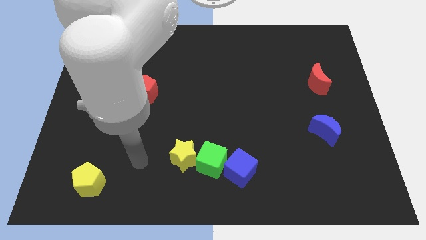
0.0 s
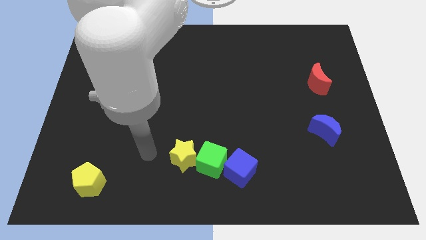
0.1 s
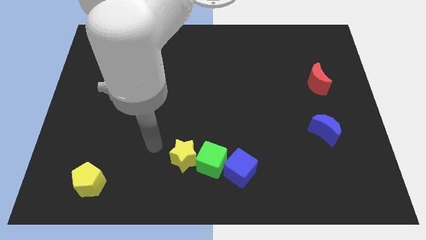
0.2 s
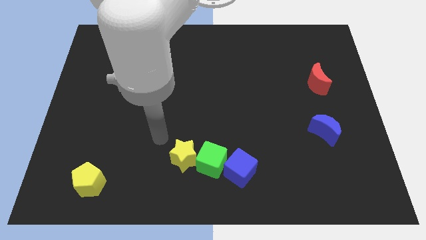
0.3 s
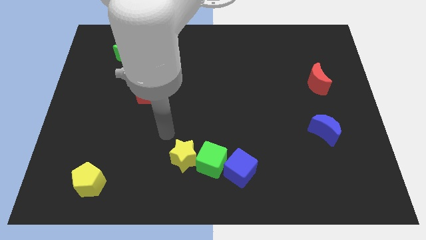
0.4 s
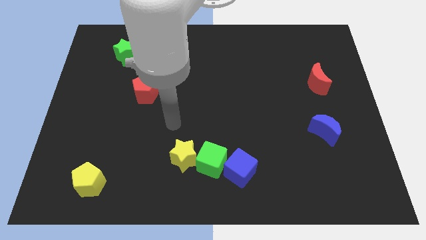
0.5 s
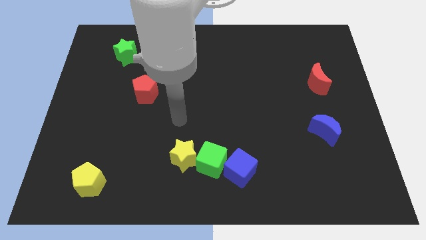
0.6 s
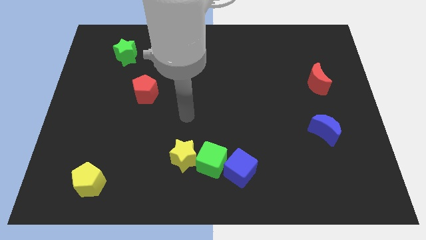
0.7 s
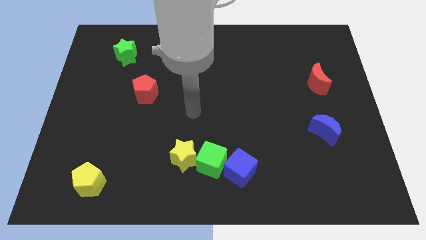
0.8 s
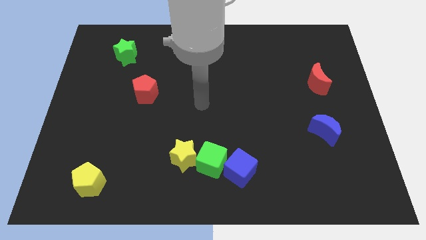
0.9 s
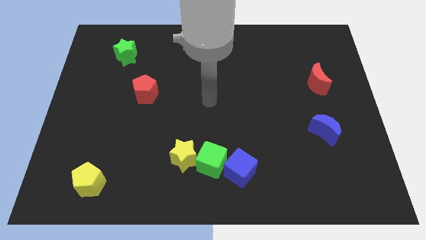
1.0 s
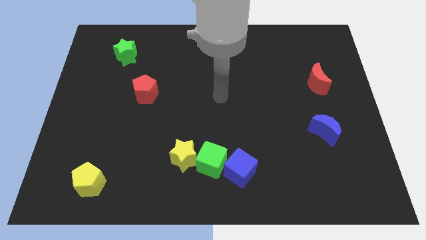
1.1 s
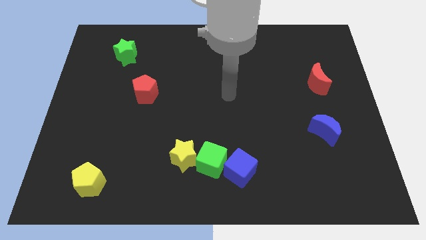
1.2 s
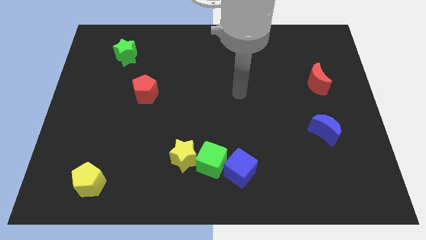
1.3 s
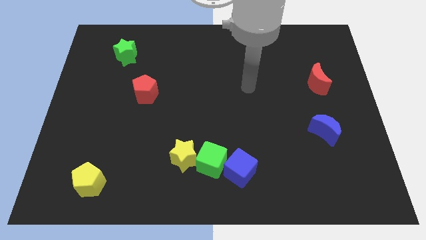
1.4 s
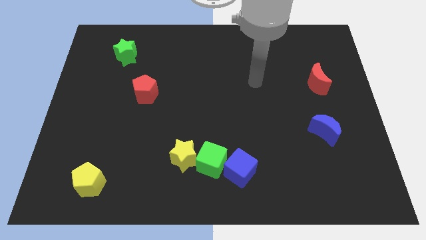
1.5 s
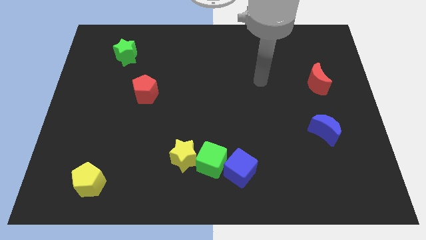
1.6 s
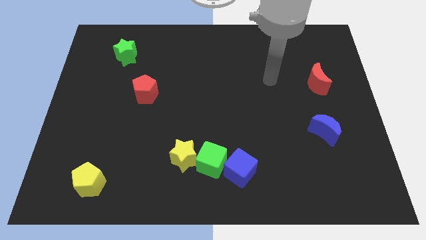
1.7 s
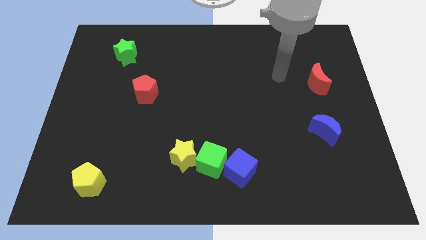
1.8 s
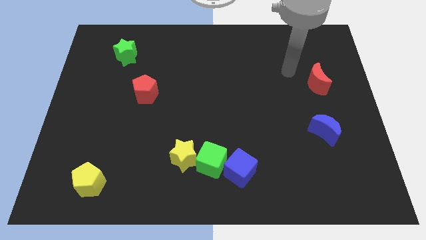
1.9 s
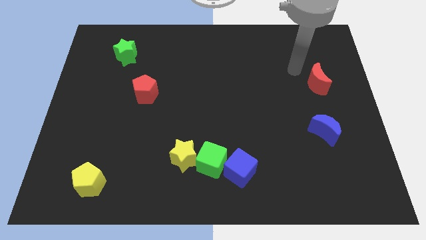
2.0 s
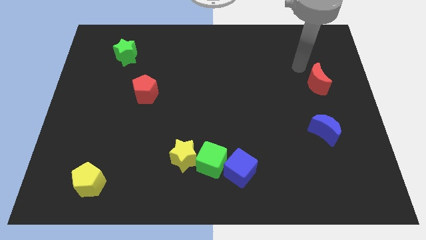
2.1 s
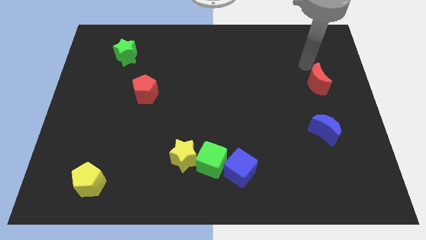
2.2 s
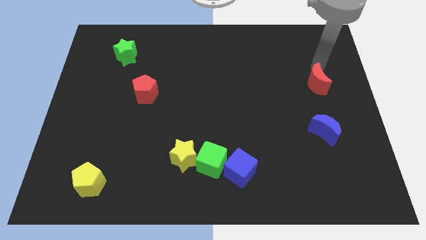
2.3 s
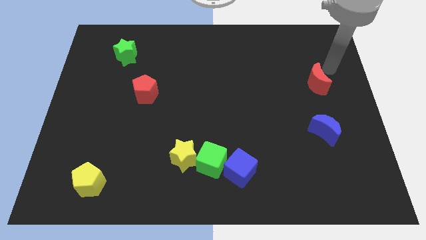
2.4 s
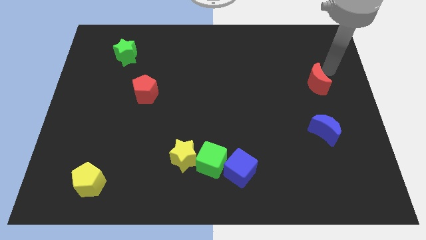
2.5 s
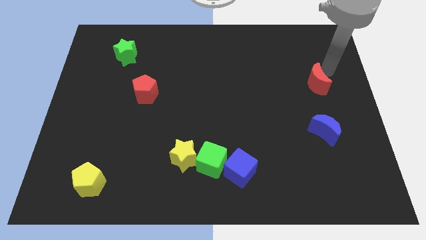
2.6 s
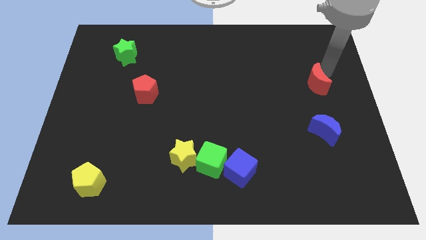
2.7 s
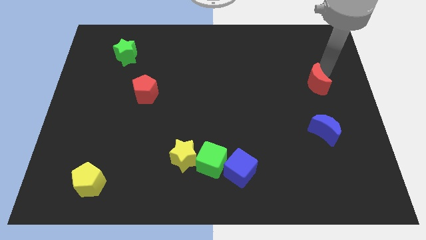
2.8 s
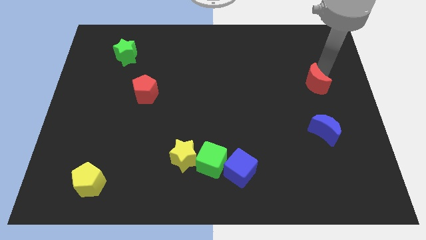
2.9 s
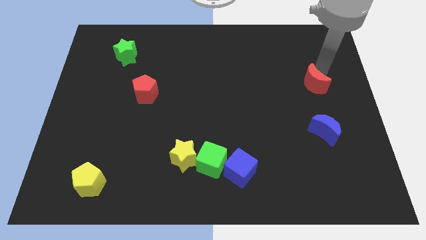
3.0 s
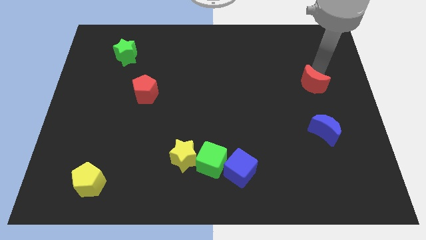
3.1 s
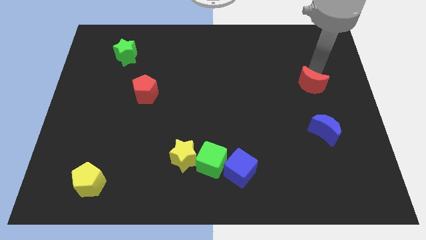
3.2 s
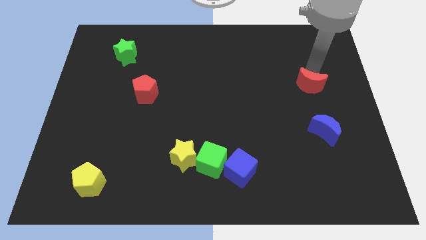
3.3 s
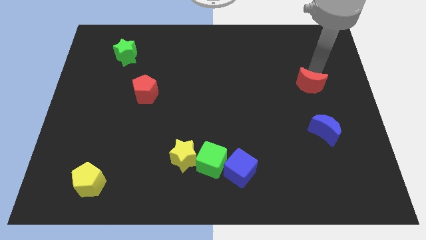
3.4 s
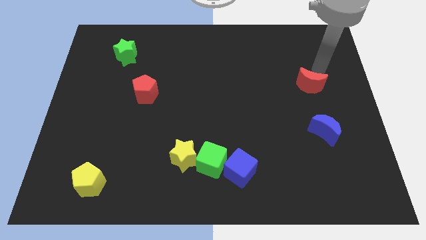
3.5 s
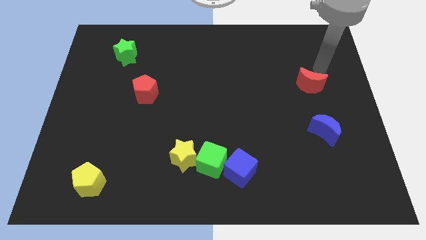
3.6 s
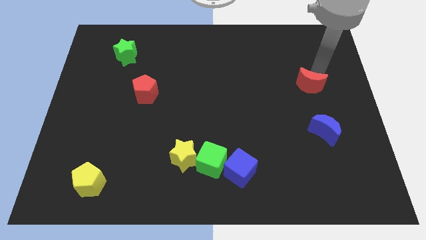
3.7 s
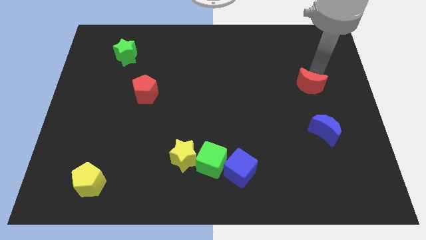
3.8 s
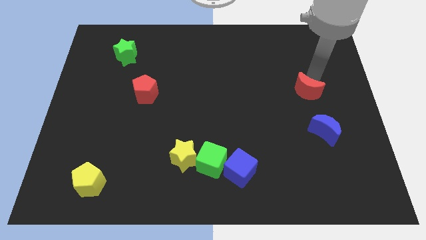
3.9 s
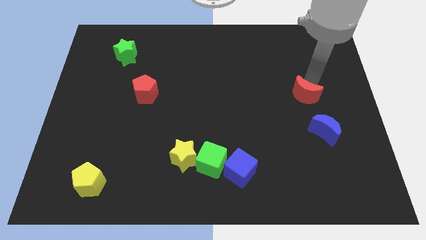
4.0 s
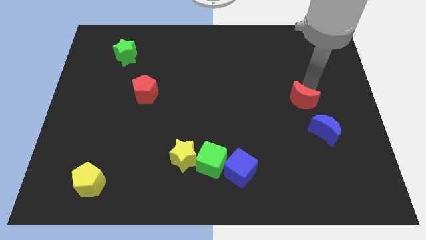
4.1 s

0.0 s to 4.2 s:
push the red moon slightly downwards and left

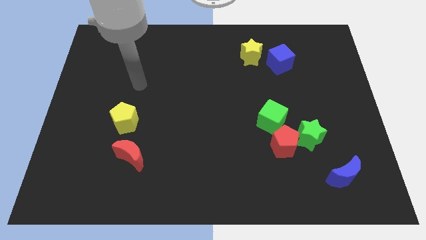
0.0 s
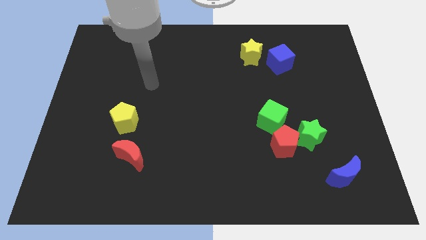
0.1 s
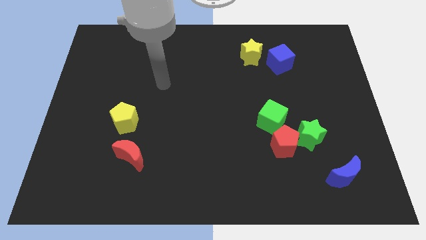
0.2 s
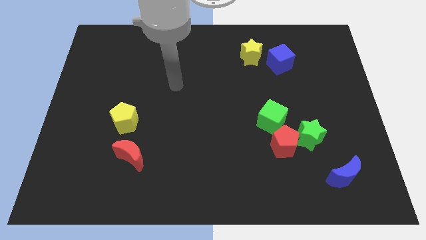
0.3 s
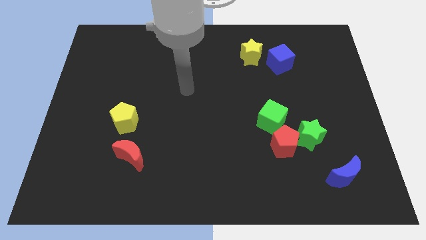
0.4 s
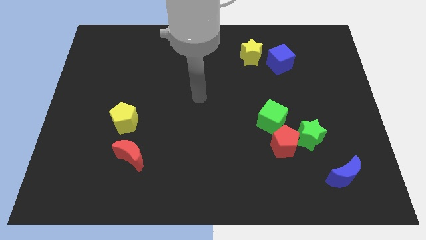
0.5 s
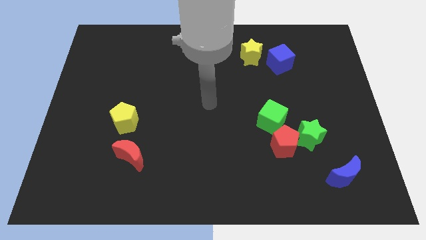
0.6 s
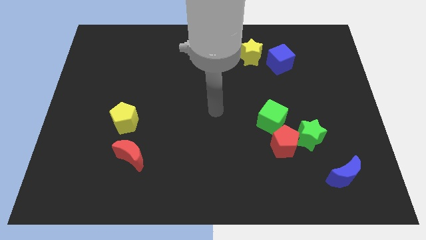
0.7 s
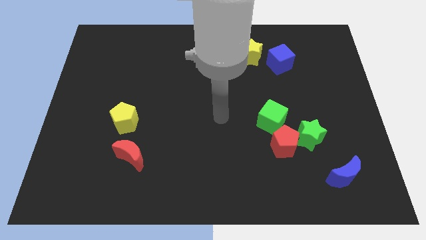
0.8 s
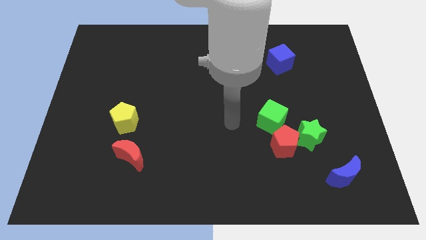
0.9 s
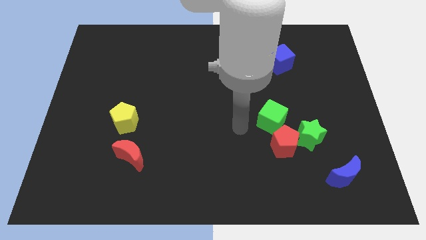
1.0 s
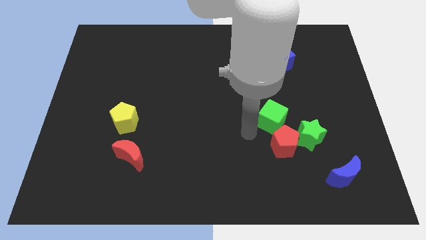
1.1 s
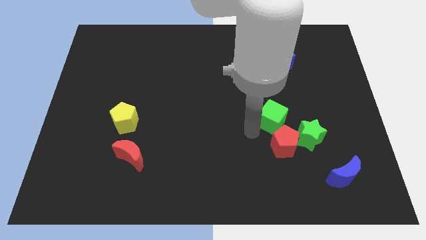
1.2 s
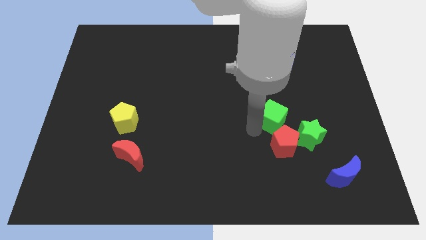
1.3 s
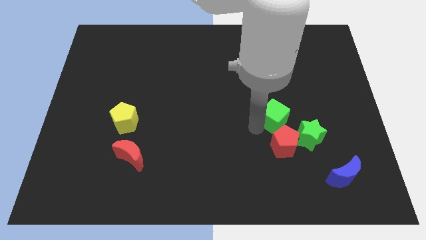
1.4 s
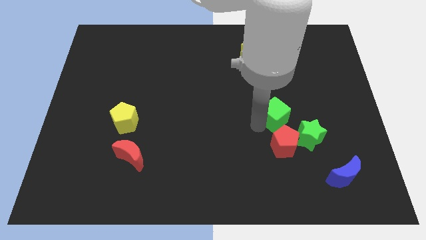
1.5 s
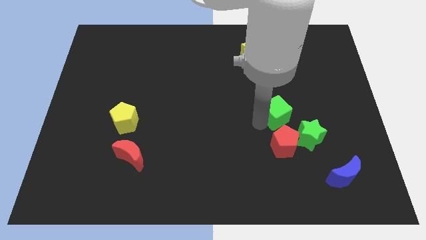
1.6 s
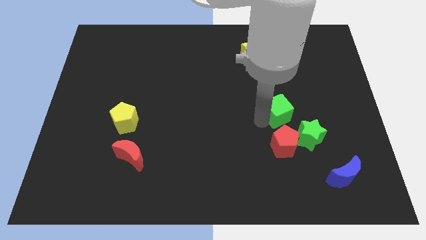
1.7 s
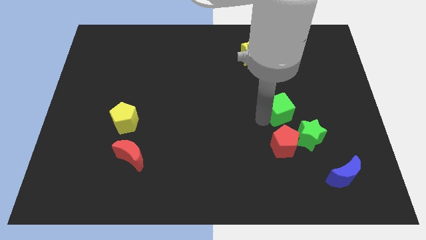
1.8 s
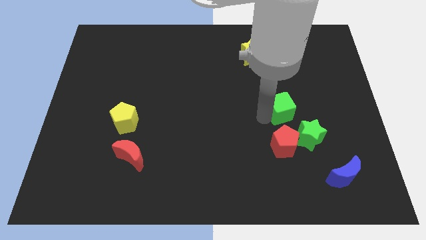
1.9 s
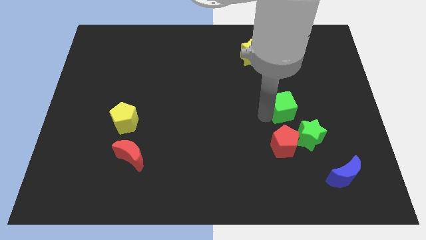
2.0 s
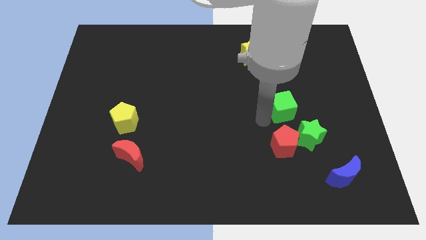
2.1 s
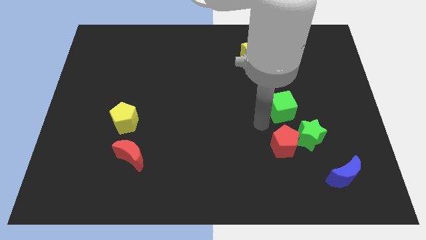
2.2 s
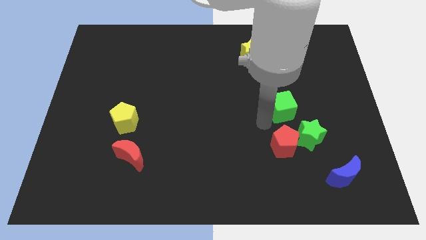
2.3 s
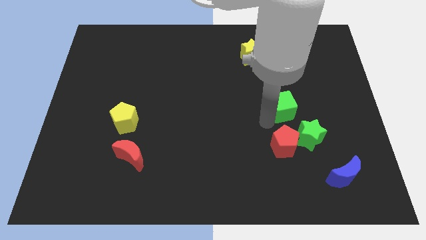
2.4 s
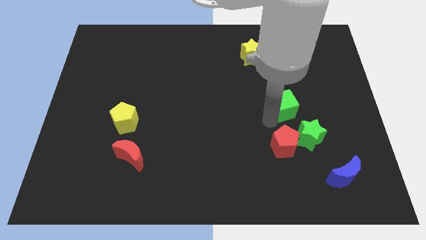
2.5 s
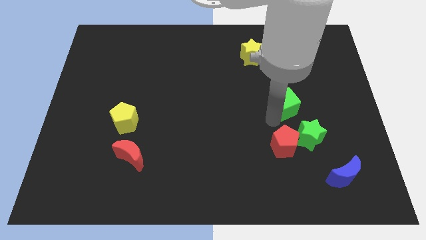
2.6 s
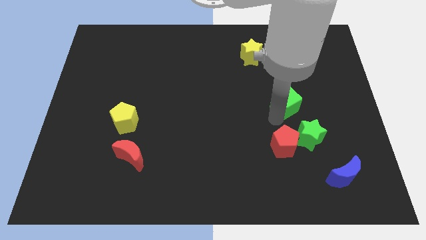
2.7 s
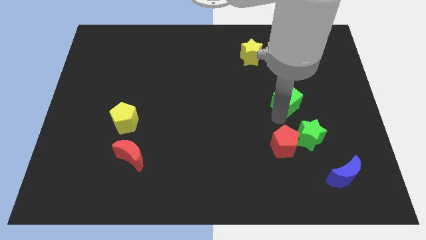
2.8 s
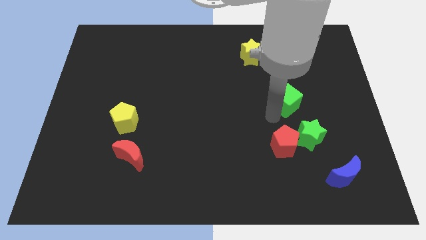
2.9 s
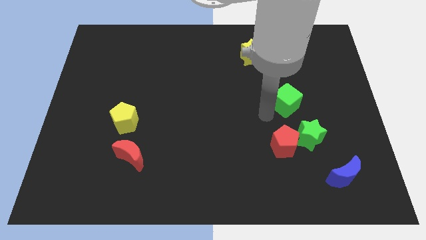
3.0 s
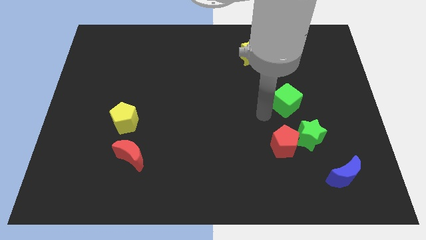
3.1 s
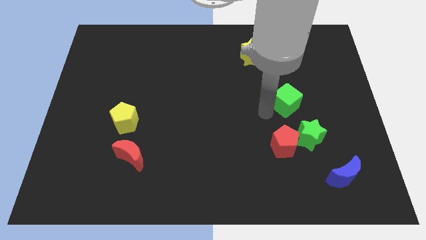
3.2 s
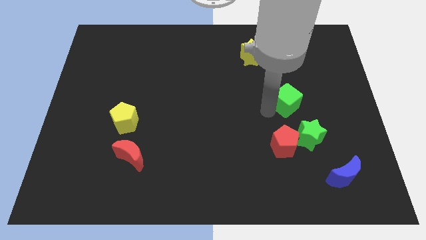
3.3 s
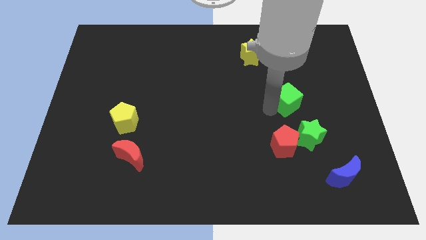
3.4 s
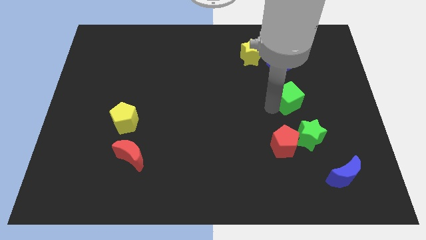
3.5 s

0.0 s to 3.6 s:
slightly push the green cube diagonally up and to the right

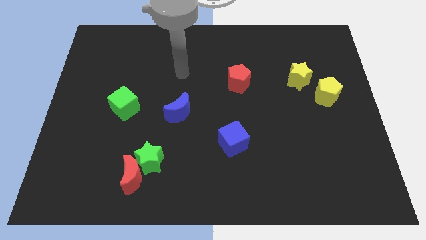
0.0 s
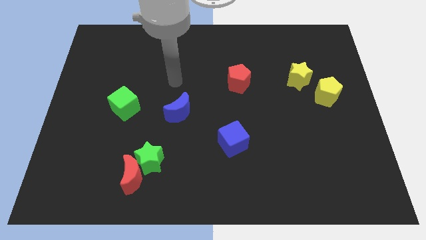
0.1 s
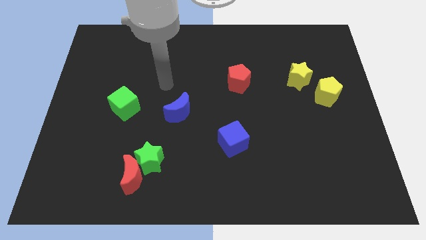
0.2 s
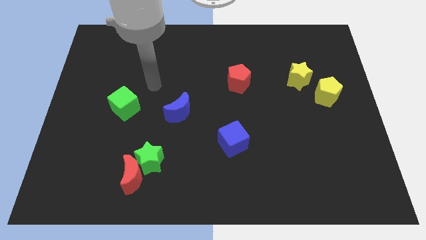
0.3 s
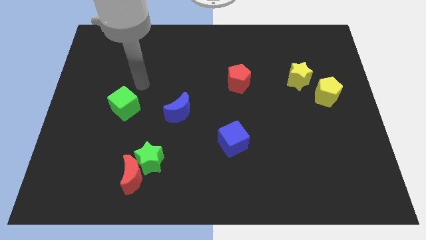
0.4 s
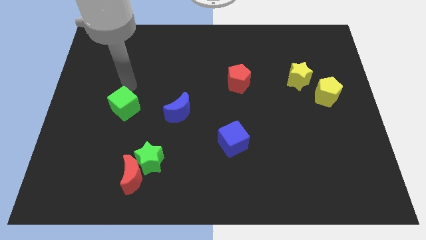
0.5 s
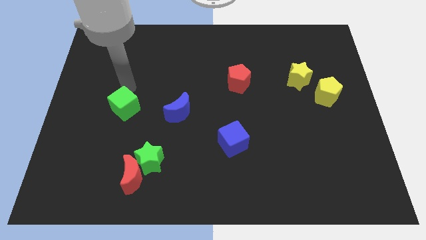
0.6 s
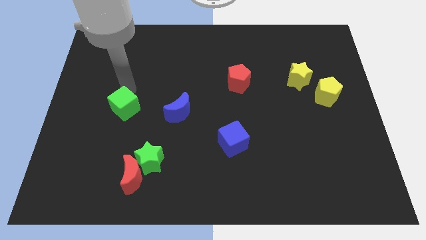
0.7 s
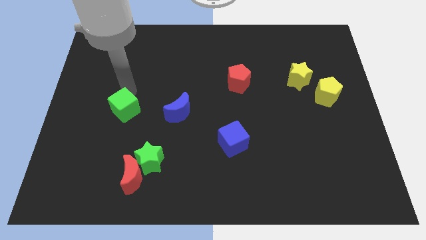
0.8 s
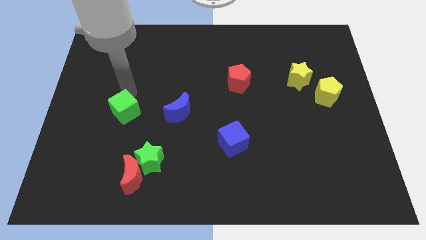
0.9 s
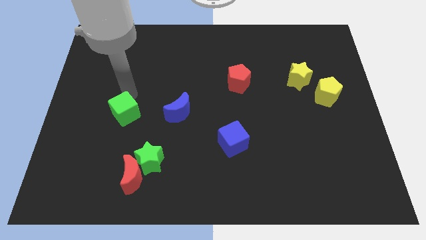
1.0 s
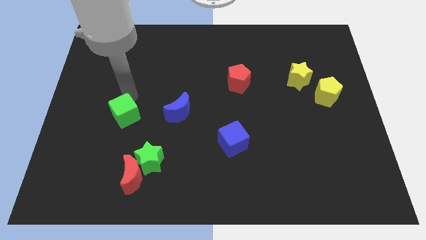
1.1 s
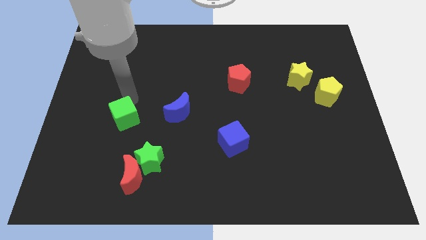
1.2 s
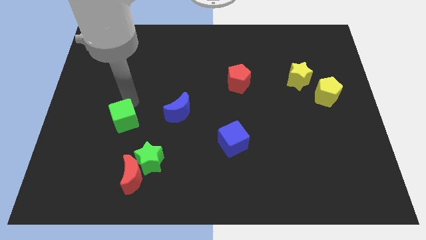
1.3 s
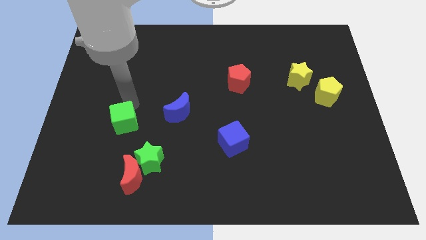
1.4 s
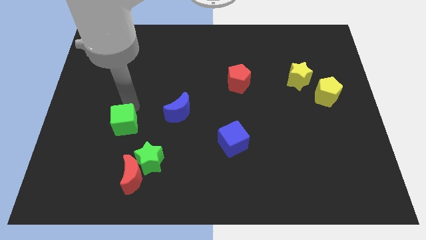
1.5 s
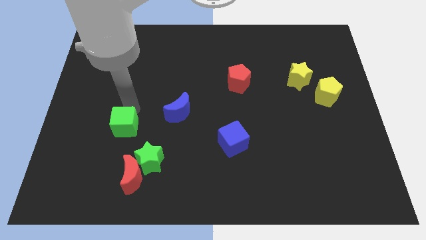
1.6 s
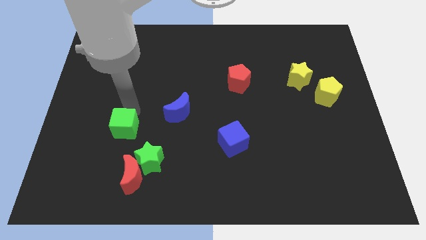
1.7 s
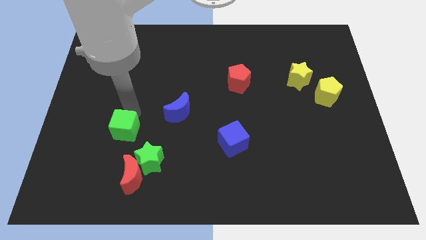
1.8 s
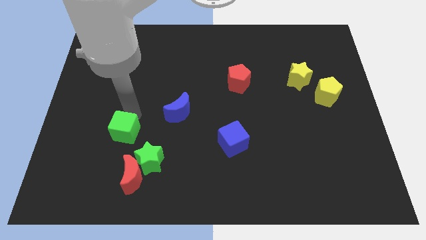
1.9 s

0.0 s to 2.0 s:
slightly slide the green cube downwards
